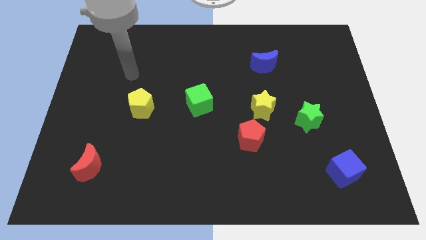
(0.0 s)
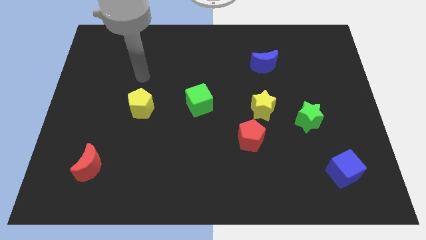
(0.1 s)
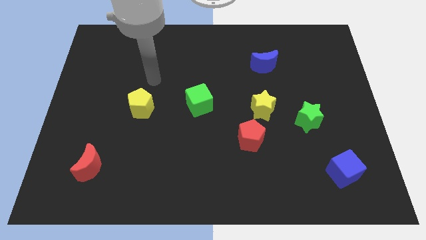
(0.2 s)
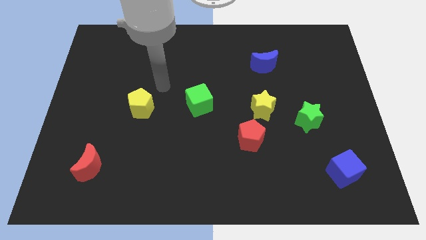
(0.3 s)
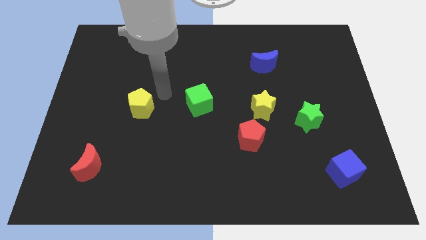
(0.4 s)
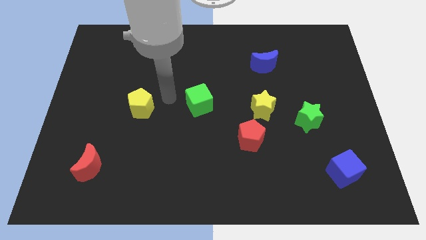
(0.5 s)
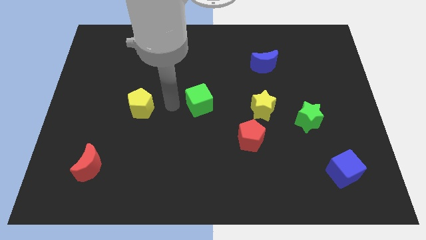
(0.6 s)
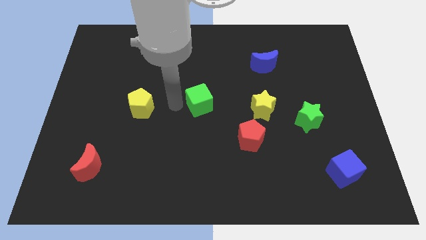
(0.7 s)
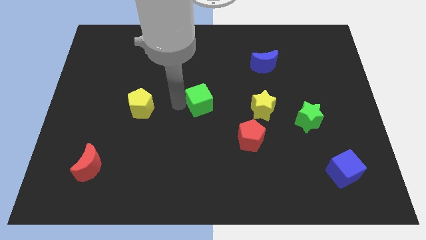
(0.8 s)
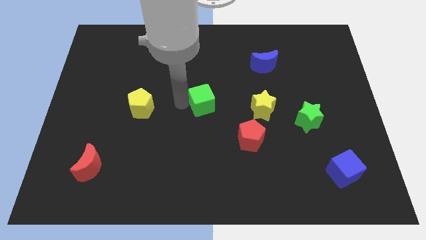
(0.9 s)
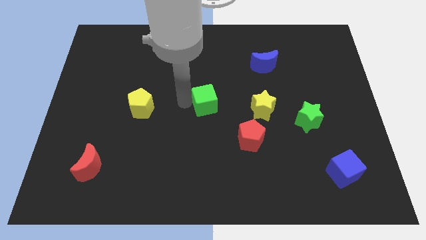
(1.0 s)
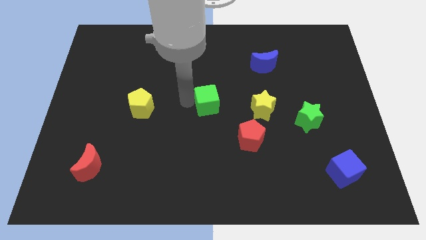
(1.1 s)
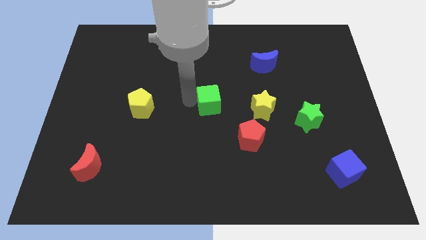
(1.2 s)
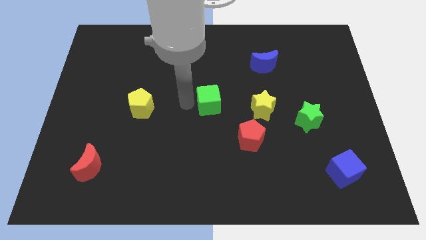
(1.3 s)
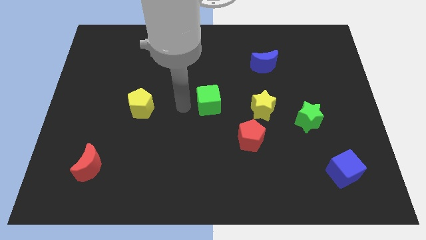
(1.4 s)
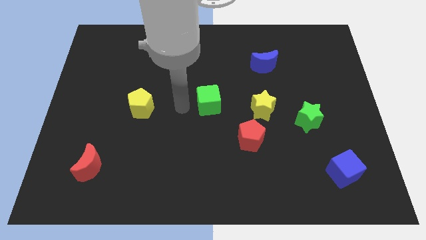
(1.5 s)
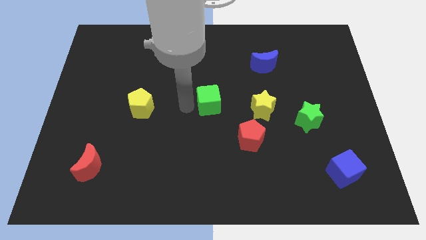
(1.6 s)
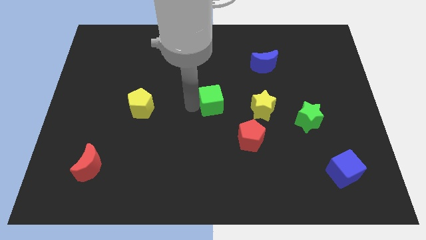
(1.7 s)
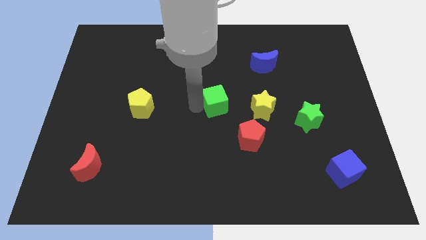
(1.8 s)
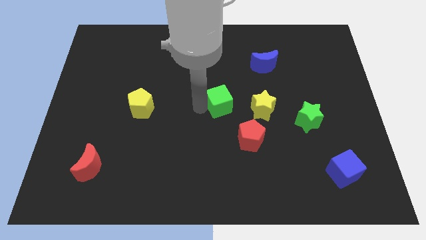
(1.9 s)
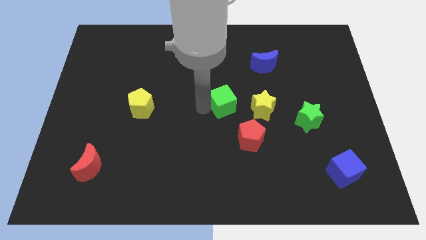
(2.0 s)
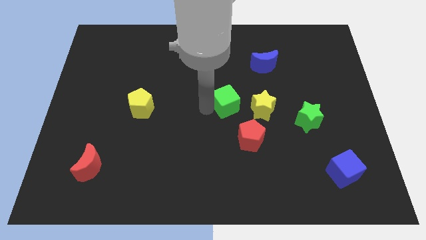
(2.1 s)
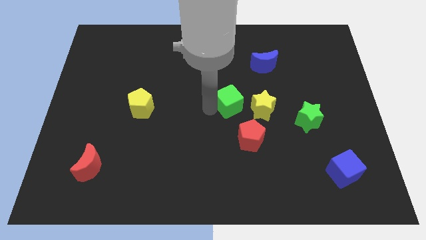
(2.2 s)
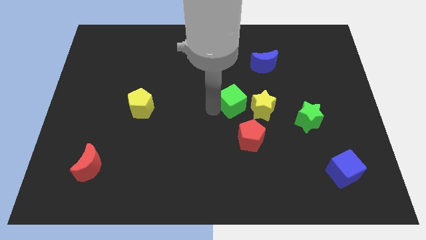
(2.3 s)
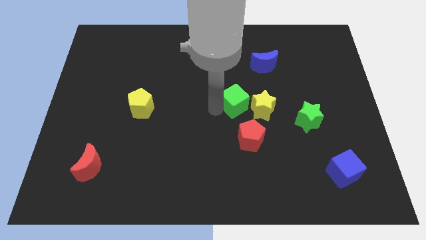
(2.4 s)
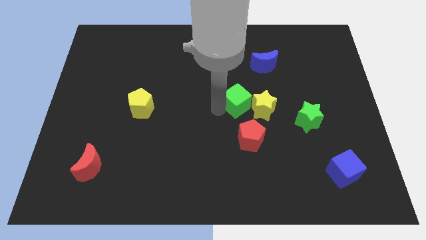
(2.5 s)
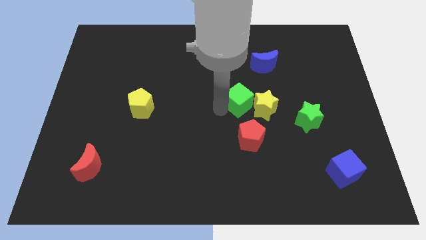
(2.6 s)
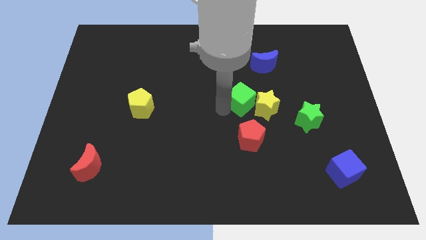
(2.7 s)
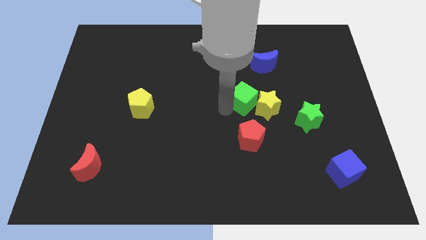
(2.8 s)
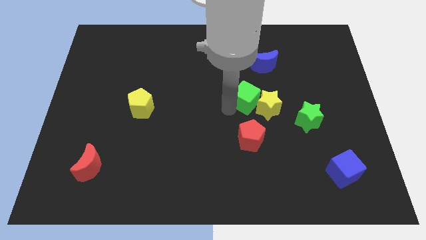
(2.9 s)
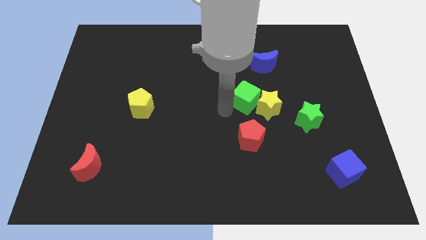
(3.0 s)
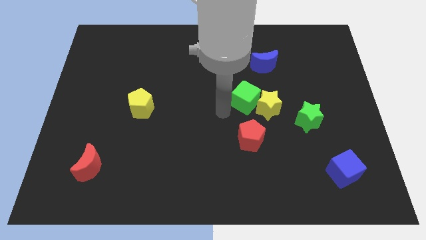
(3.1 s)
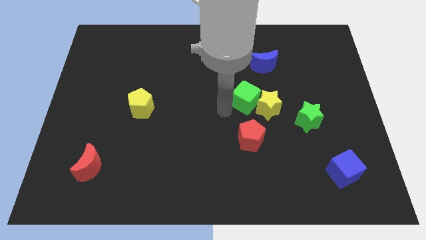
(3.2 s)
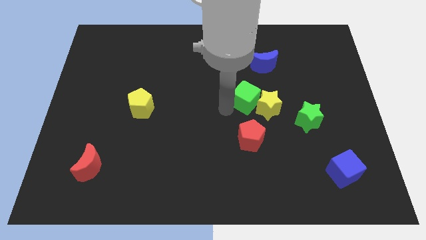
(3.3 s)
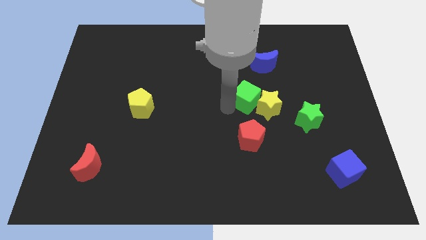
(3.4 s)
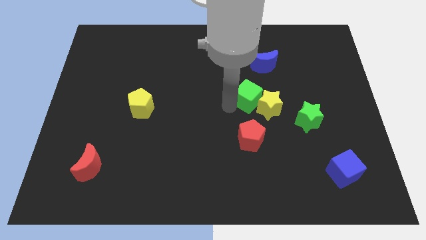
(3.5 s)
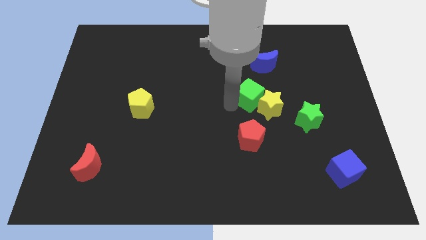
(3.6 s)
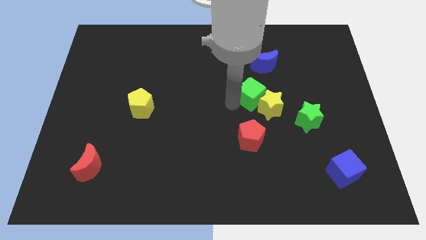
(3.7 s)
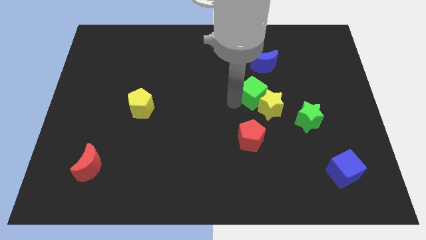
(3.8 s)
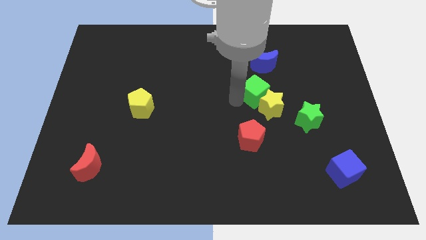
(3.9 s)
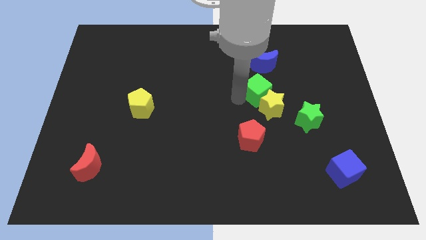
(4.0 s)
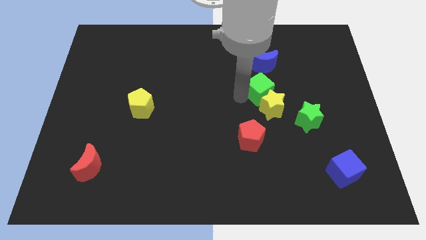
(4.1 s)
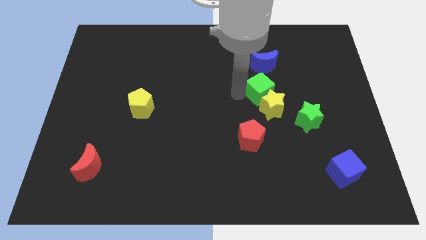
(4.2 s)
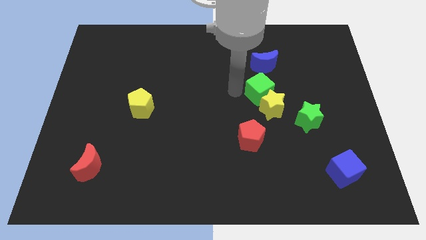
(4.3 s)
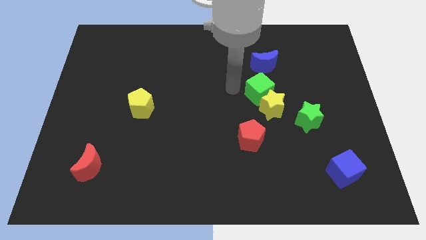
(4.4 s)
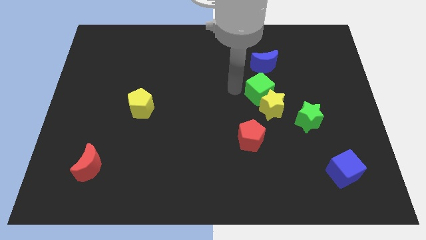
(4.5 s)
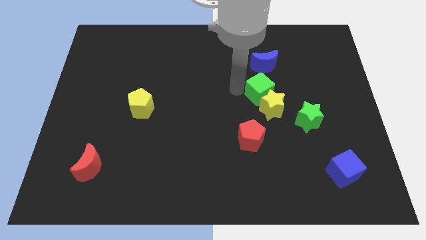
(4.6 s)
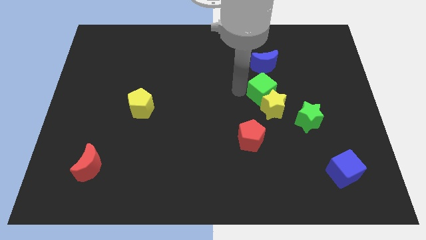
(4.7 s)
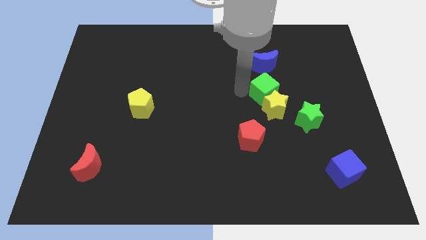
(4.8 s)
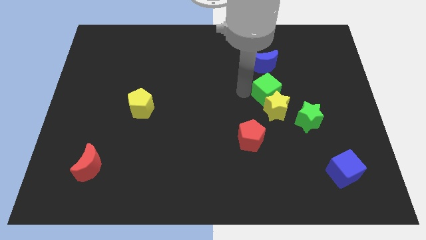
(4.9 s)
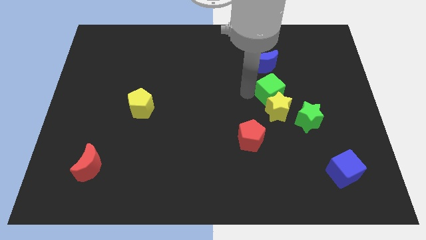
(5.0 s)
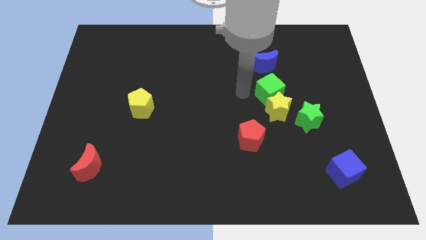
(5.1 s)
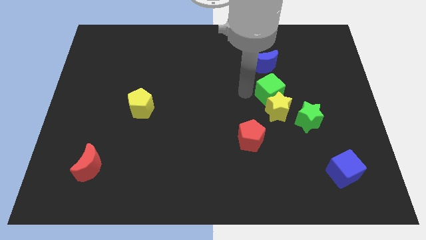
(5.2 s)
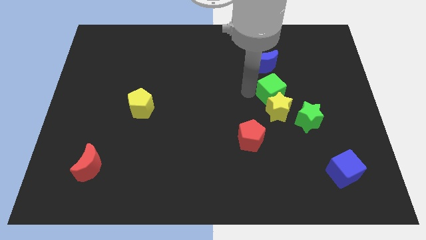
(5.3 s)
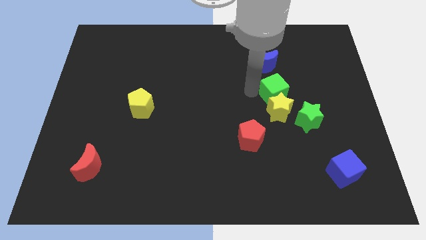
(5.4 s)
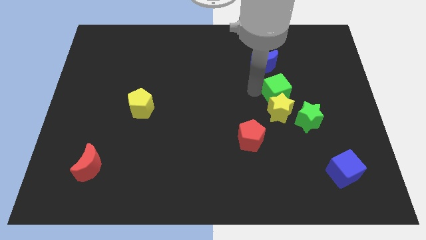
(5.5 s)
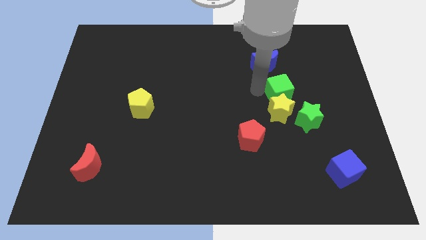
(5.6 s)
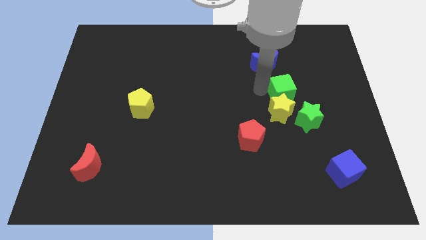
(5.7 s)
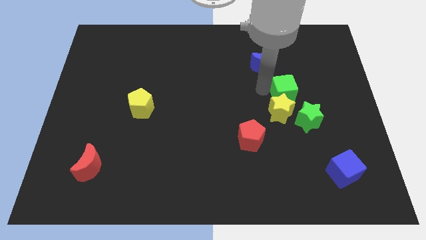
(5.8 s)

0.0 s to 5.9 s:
slide the green cube to the right

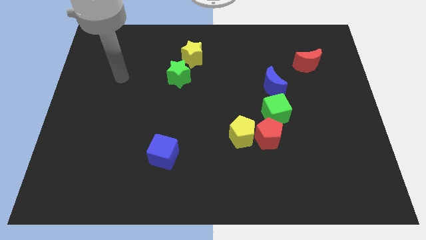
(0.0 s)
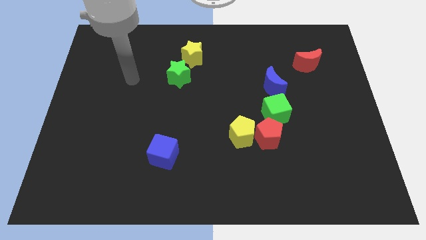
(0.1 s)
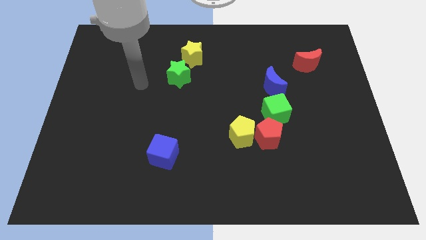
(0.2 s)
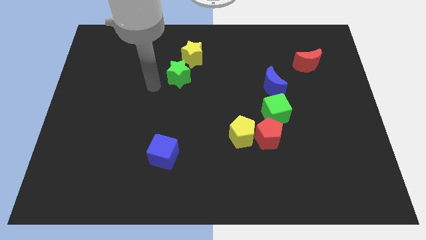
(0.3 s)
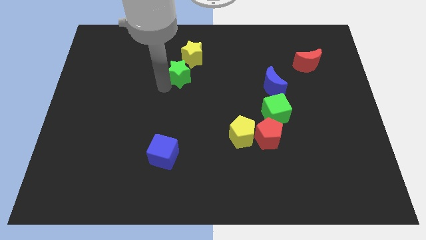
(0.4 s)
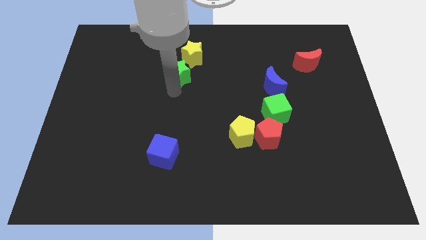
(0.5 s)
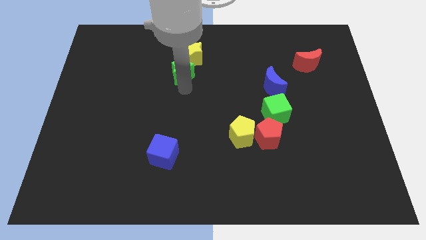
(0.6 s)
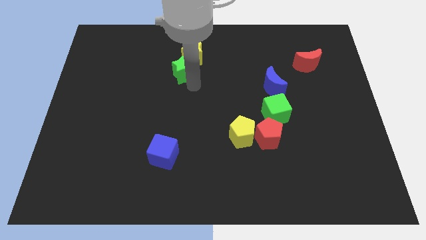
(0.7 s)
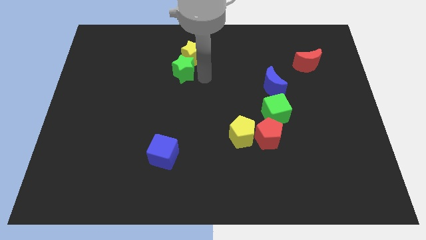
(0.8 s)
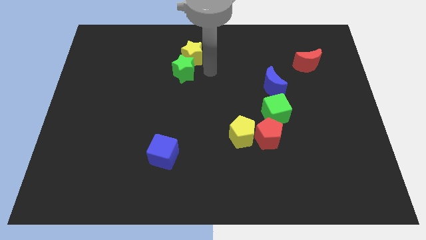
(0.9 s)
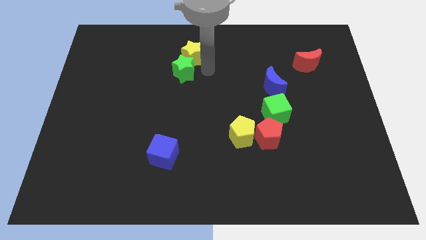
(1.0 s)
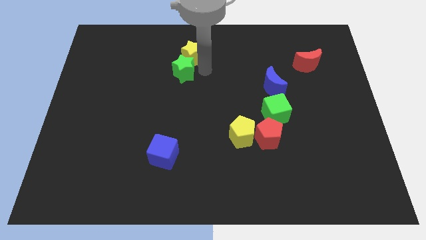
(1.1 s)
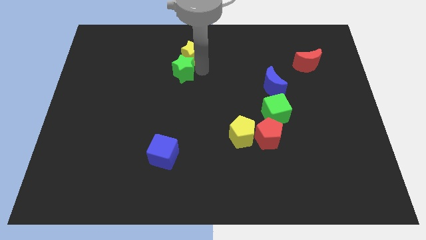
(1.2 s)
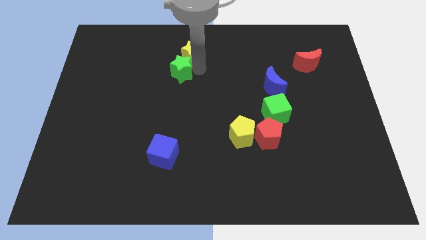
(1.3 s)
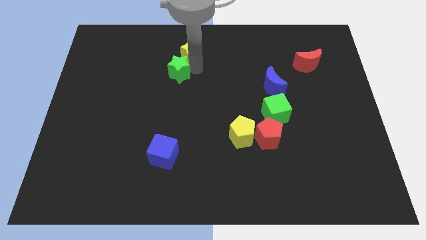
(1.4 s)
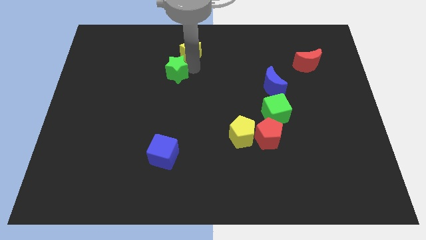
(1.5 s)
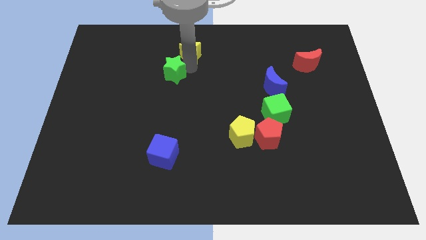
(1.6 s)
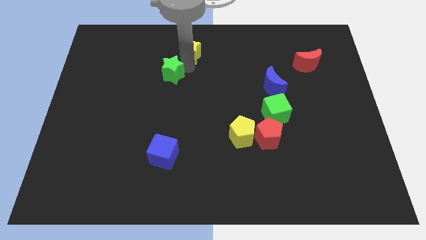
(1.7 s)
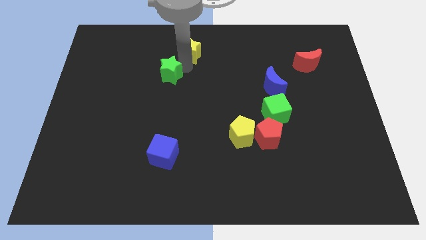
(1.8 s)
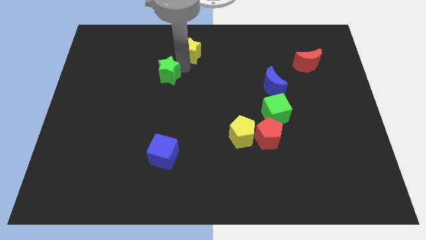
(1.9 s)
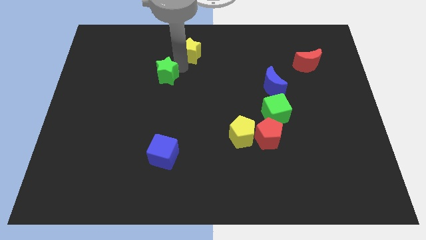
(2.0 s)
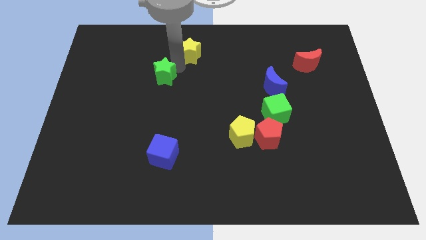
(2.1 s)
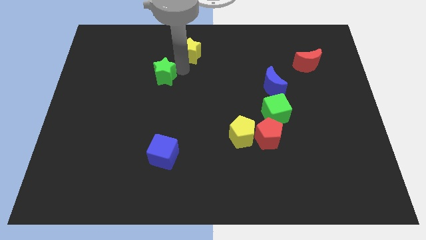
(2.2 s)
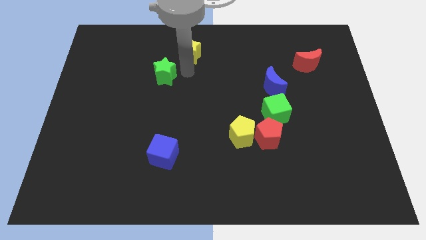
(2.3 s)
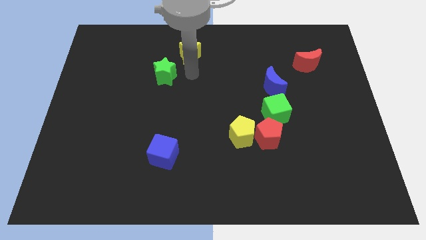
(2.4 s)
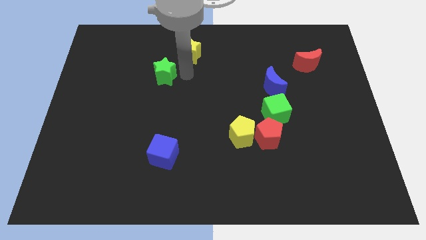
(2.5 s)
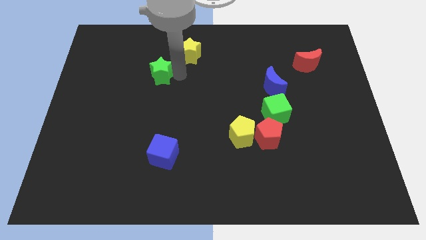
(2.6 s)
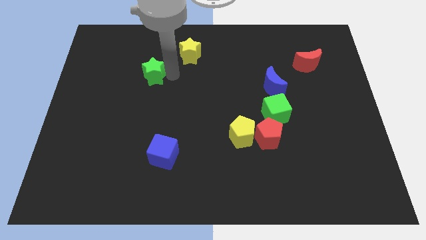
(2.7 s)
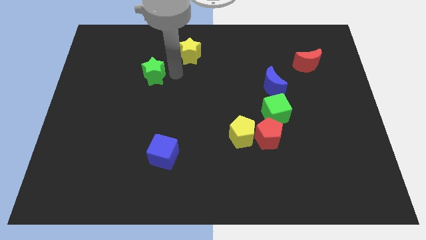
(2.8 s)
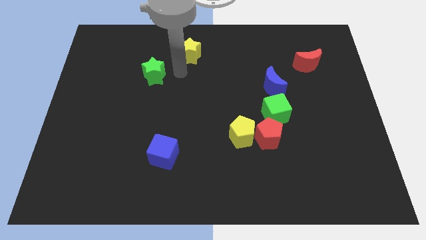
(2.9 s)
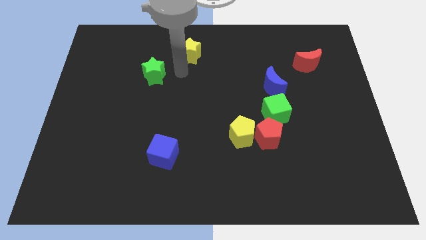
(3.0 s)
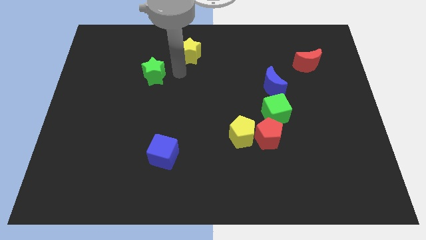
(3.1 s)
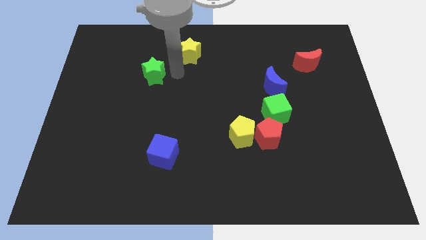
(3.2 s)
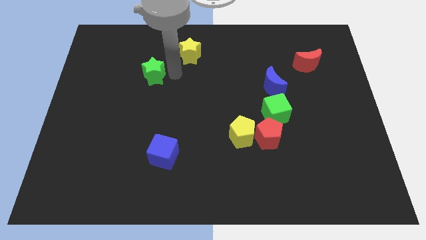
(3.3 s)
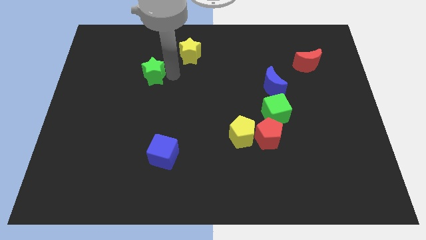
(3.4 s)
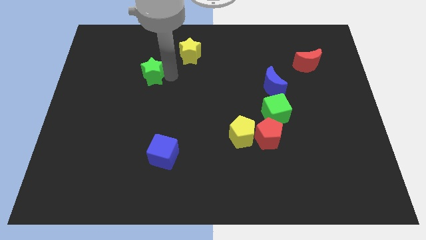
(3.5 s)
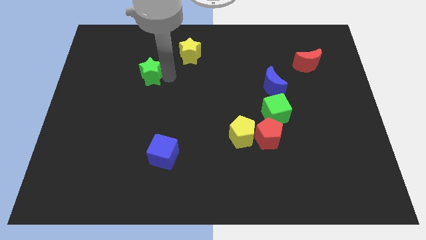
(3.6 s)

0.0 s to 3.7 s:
push the green star a bit left
